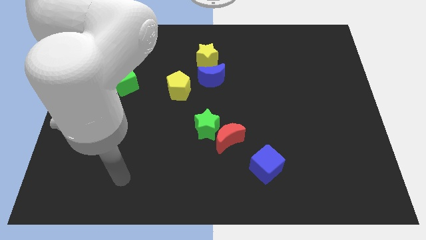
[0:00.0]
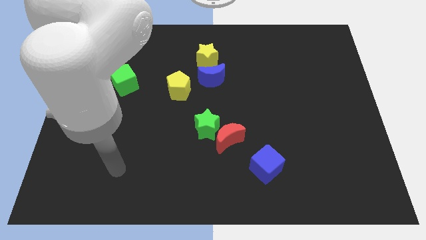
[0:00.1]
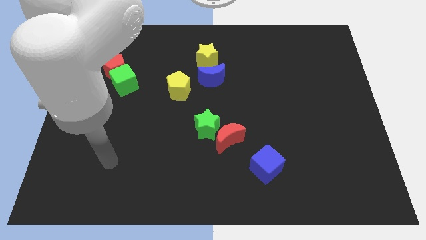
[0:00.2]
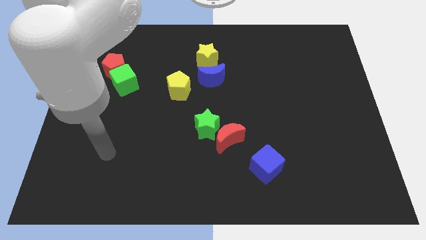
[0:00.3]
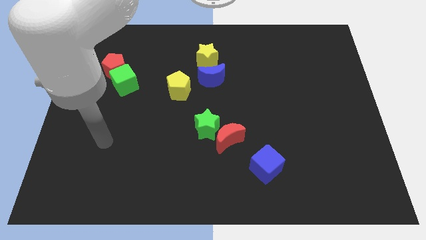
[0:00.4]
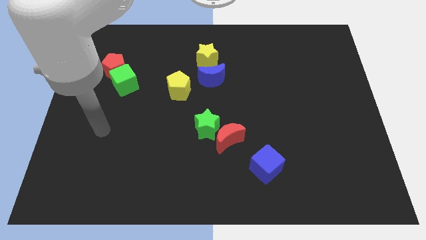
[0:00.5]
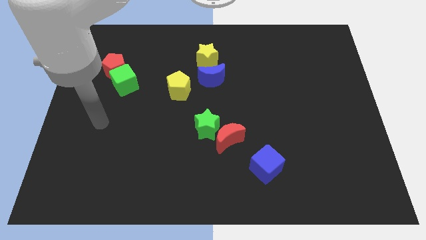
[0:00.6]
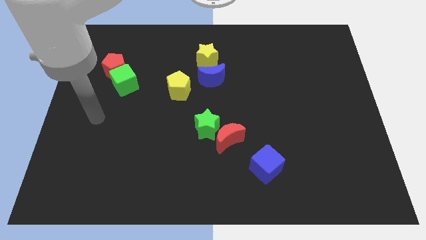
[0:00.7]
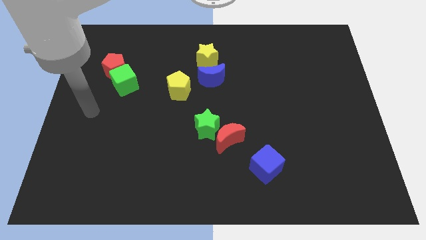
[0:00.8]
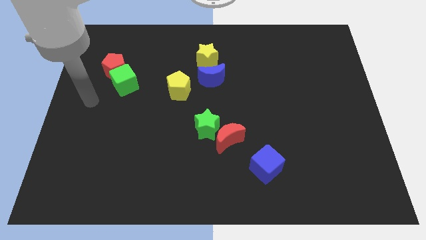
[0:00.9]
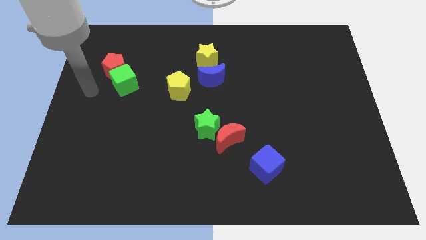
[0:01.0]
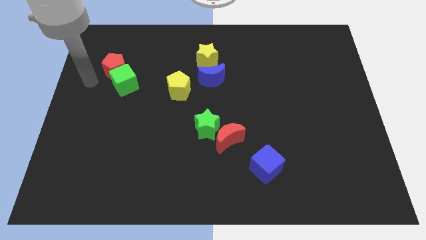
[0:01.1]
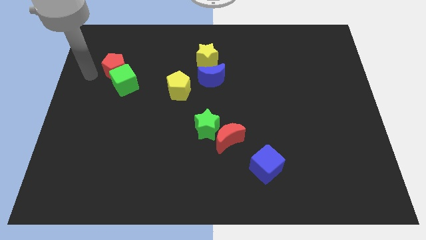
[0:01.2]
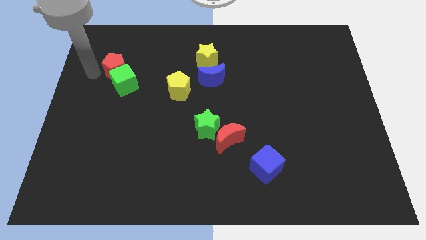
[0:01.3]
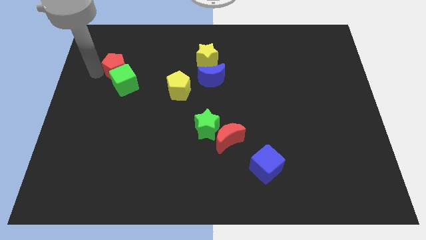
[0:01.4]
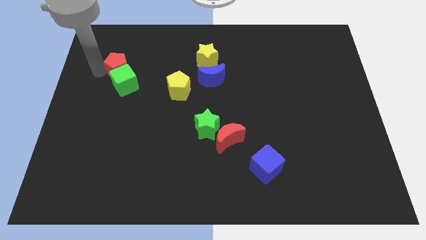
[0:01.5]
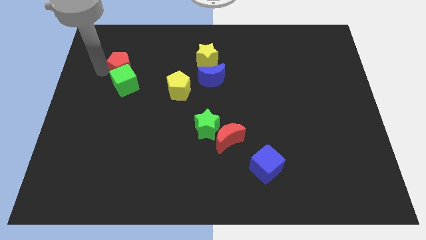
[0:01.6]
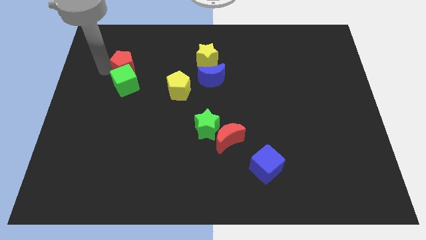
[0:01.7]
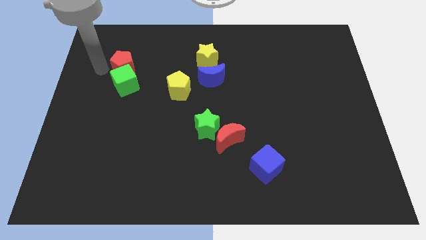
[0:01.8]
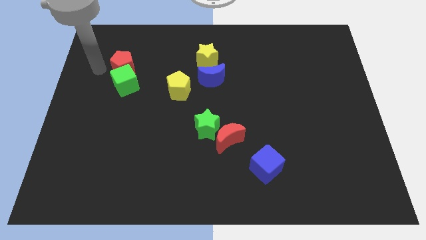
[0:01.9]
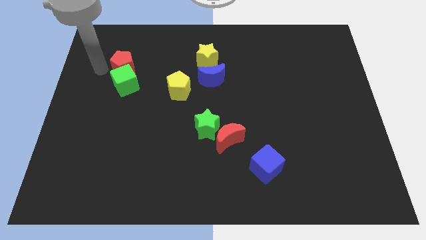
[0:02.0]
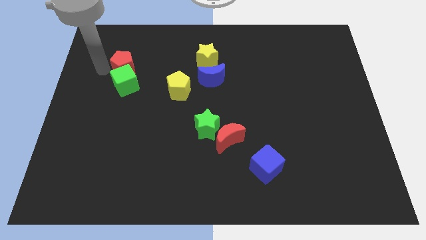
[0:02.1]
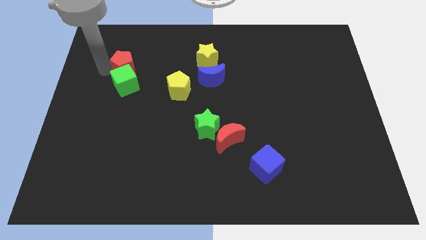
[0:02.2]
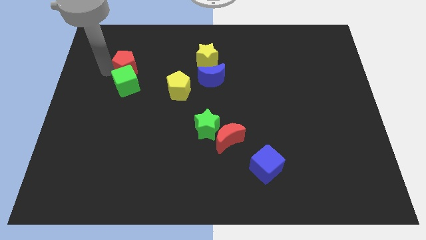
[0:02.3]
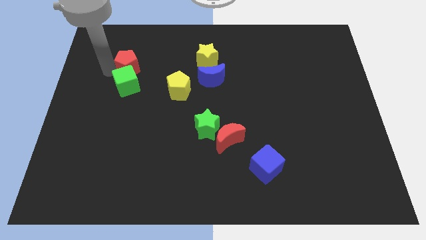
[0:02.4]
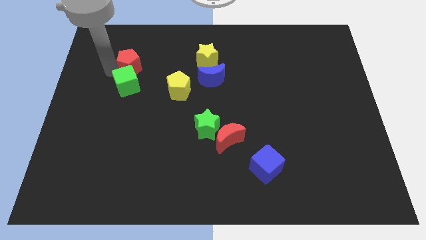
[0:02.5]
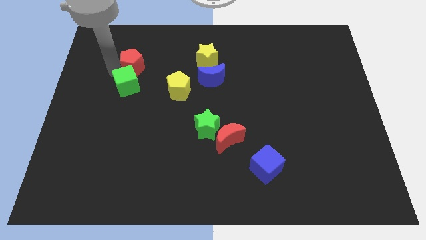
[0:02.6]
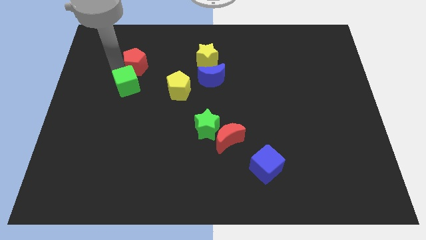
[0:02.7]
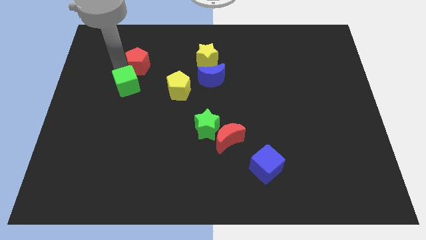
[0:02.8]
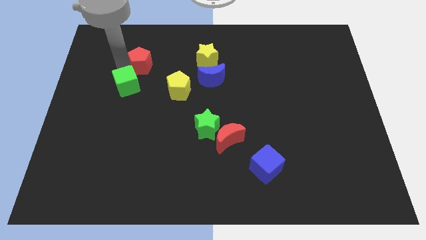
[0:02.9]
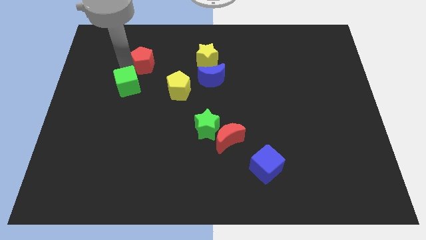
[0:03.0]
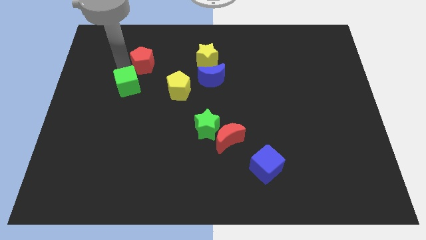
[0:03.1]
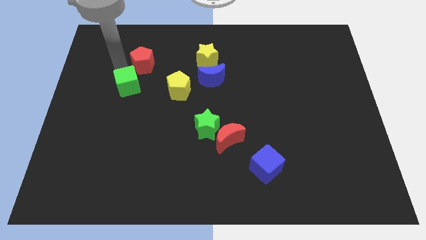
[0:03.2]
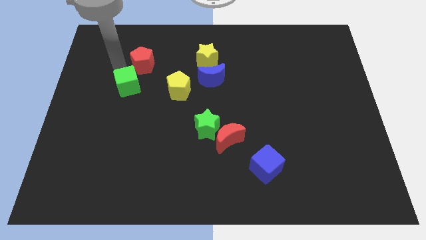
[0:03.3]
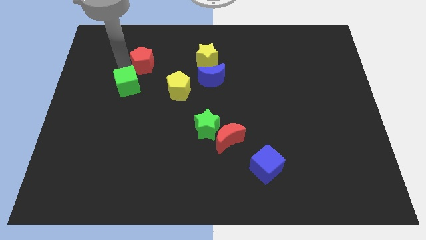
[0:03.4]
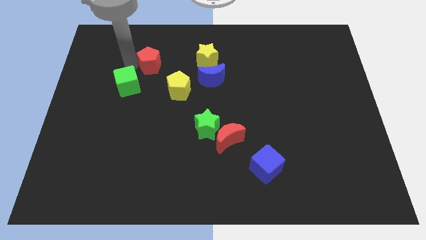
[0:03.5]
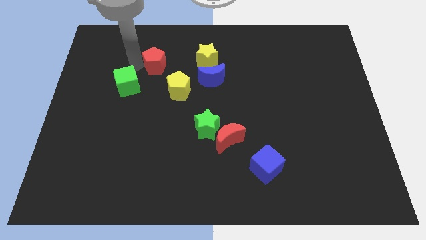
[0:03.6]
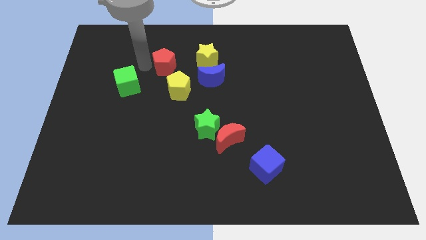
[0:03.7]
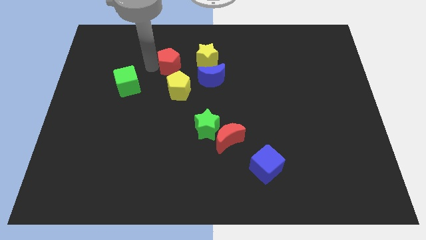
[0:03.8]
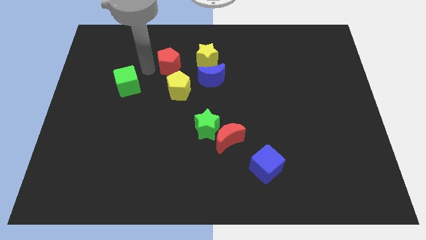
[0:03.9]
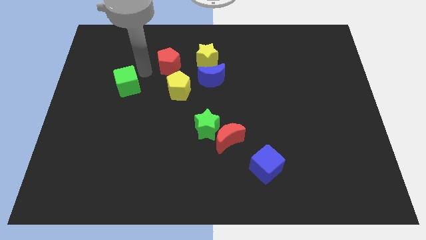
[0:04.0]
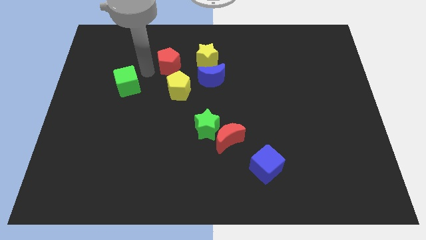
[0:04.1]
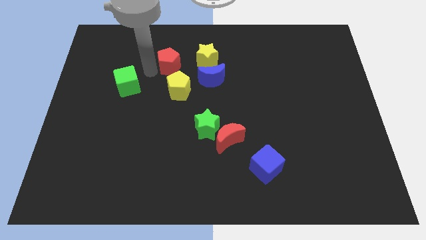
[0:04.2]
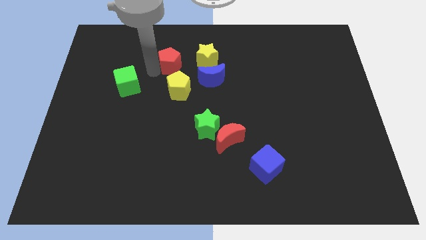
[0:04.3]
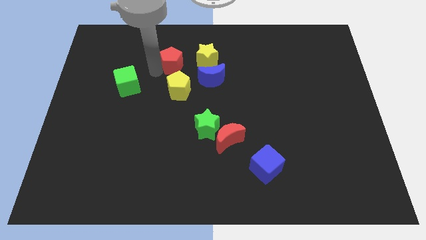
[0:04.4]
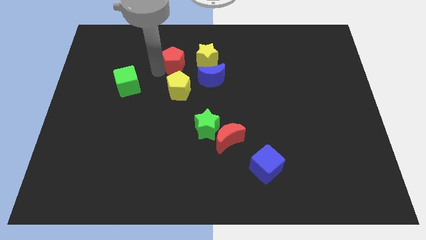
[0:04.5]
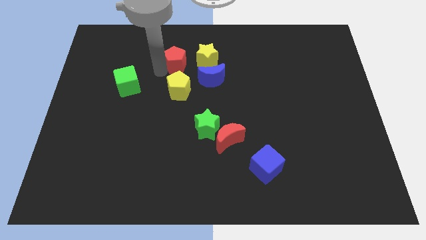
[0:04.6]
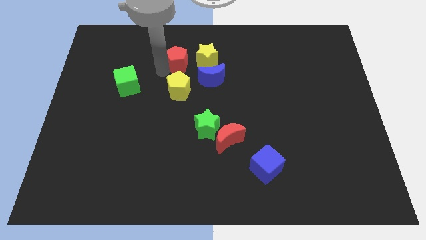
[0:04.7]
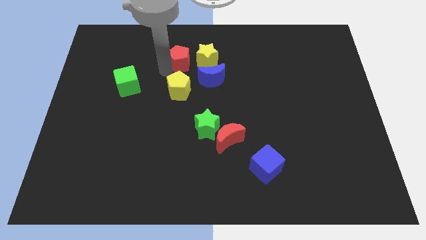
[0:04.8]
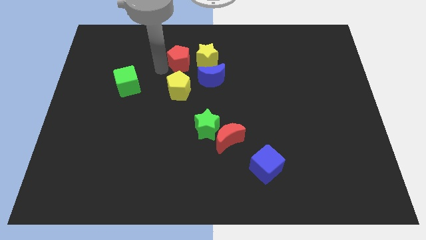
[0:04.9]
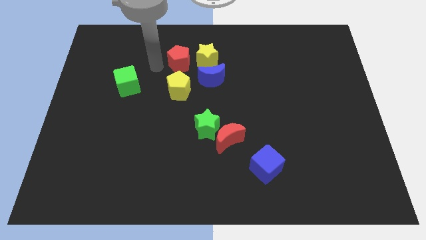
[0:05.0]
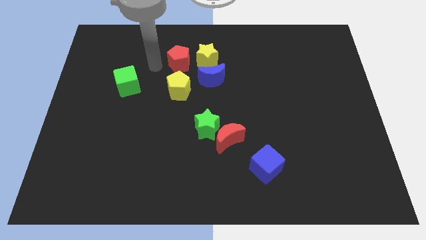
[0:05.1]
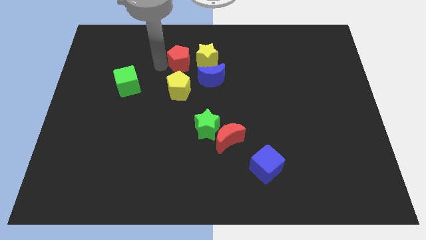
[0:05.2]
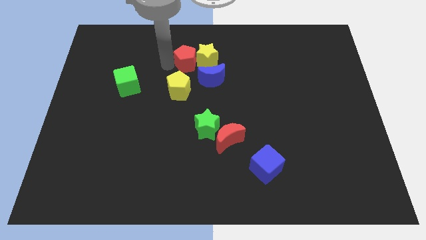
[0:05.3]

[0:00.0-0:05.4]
move the red pentagon to the yellow star

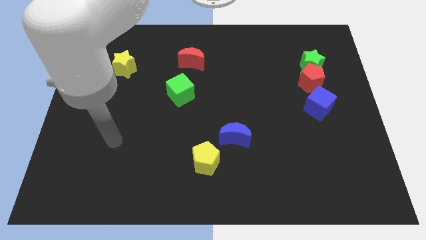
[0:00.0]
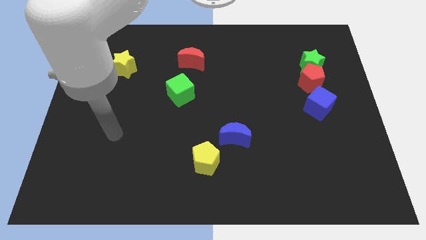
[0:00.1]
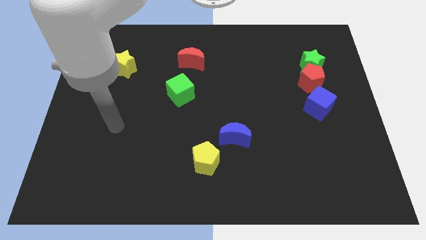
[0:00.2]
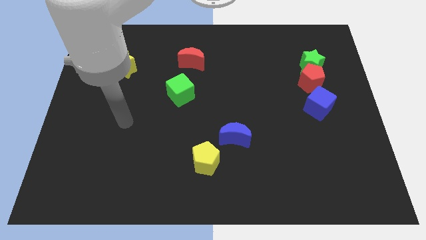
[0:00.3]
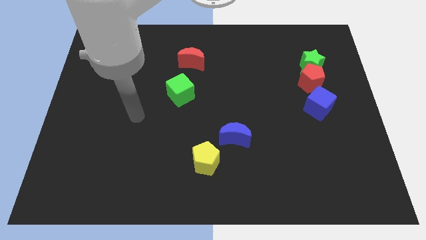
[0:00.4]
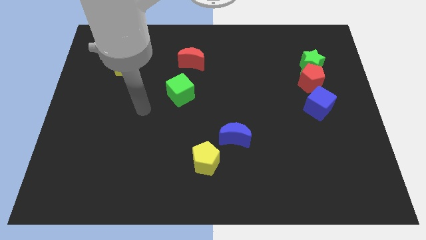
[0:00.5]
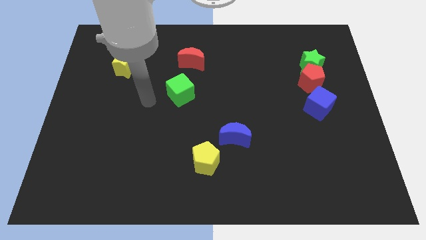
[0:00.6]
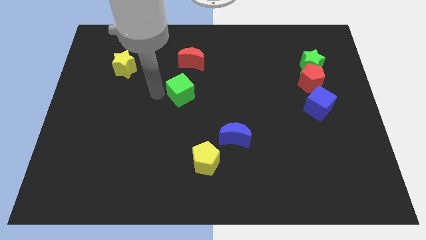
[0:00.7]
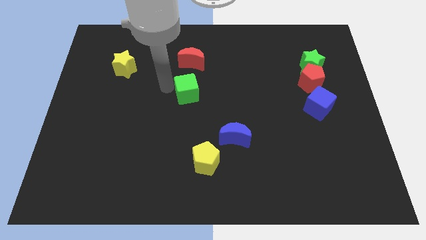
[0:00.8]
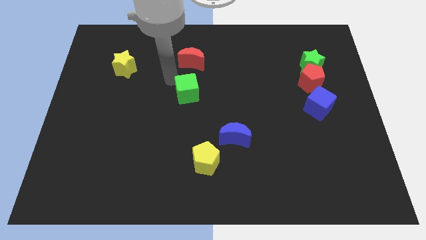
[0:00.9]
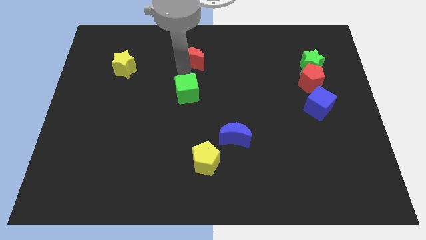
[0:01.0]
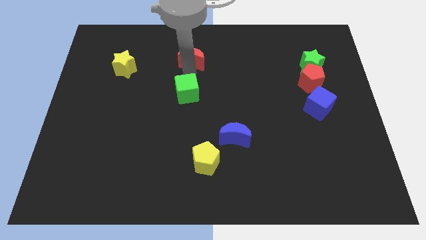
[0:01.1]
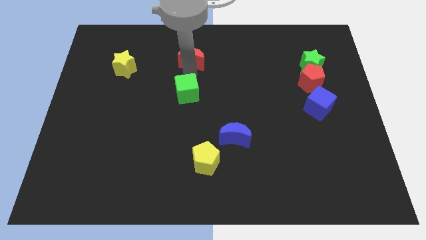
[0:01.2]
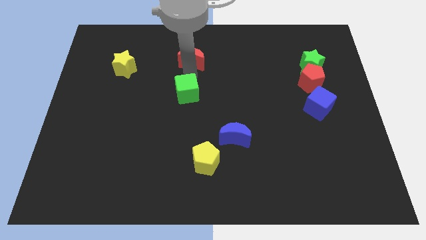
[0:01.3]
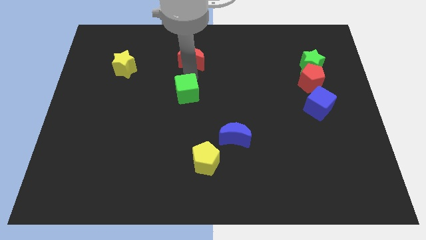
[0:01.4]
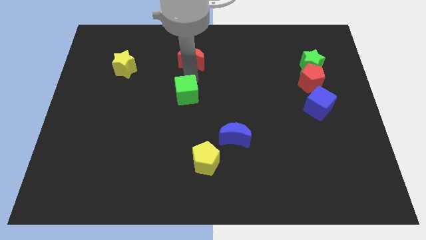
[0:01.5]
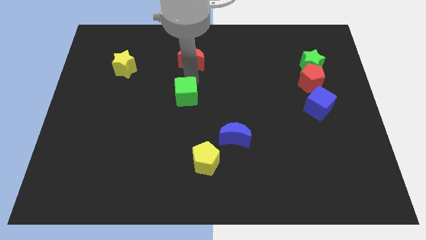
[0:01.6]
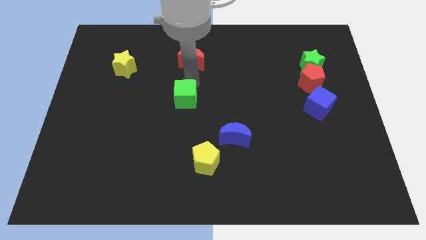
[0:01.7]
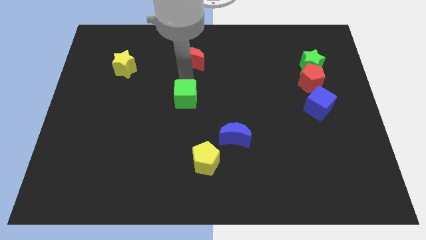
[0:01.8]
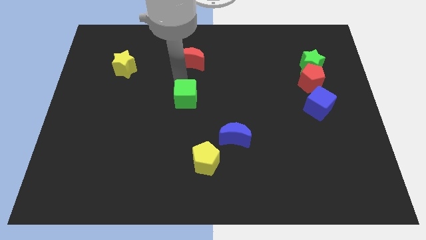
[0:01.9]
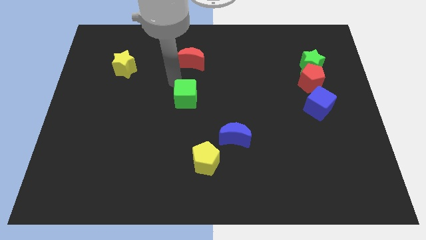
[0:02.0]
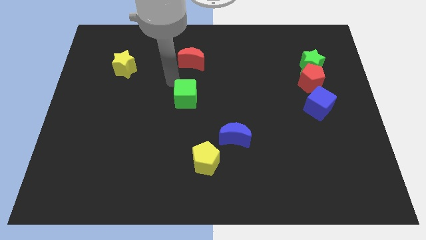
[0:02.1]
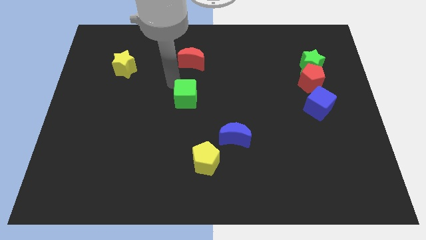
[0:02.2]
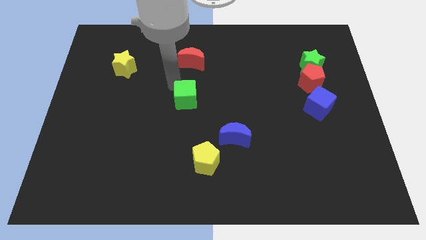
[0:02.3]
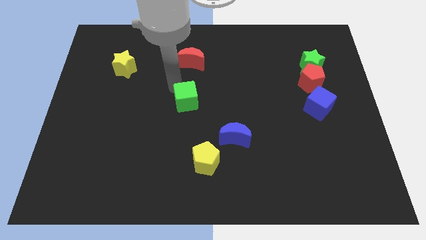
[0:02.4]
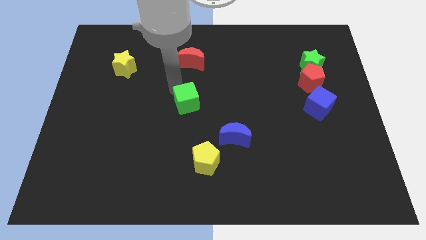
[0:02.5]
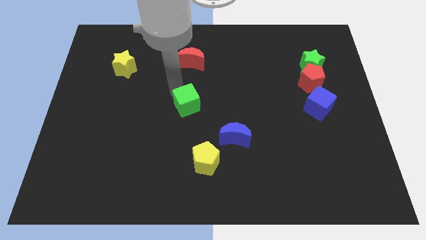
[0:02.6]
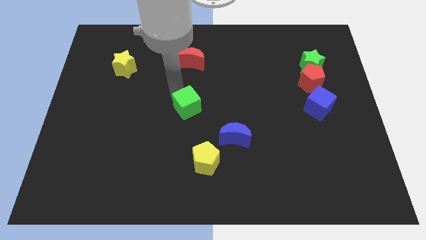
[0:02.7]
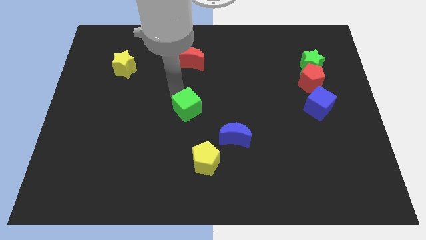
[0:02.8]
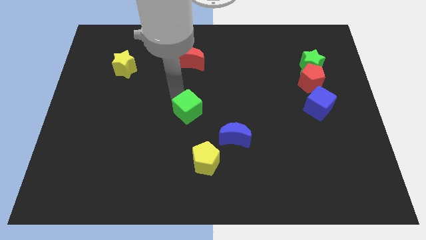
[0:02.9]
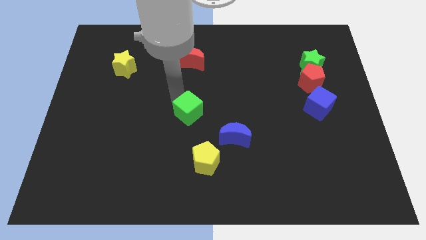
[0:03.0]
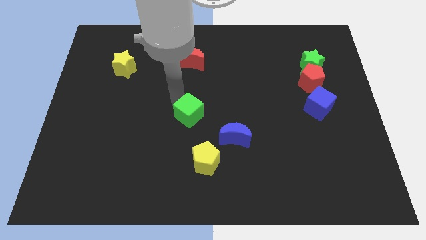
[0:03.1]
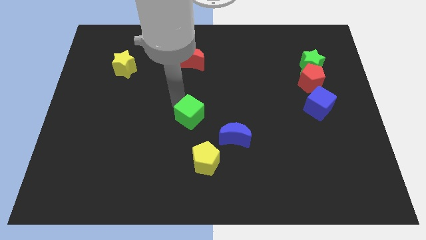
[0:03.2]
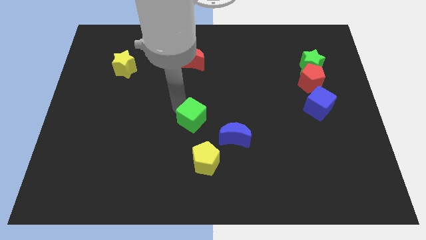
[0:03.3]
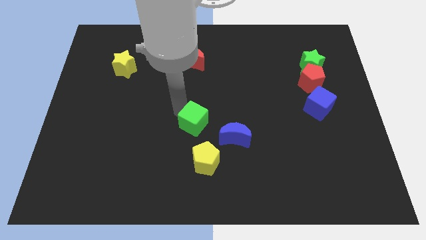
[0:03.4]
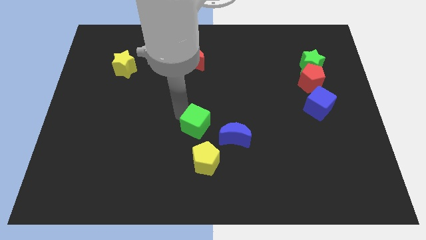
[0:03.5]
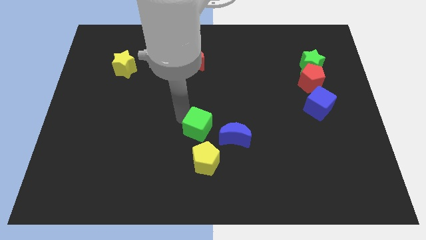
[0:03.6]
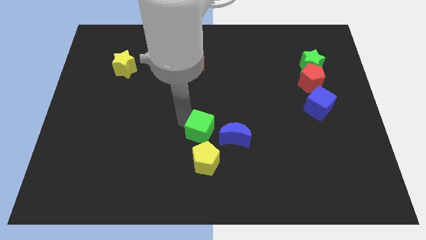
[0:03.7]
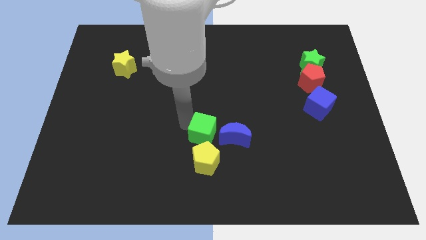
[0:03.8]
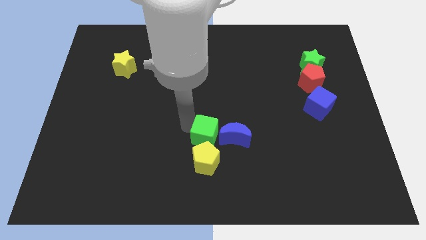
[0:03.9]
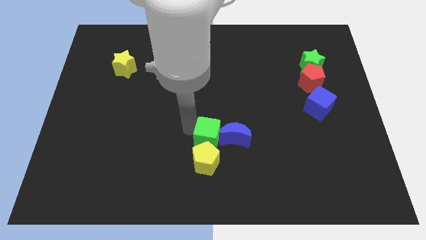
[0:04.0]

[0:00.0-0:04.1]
move the green cube next to the blue moon
